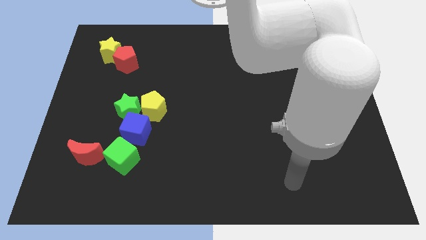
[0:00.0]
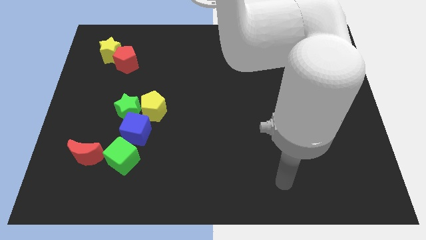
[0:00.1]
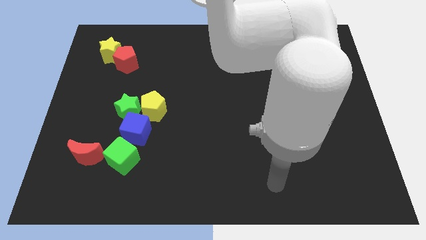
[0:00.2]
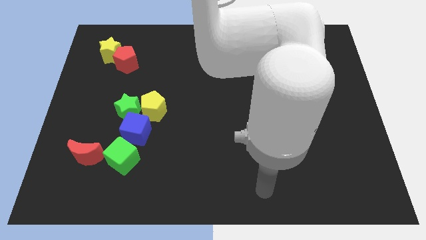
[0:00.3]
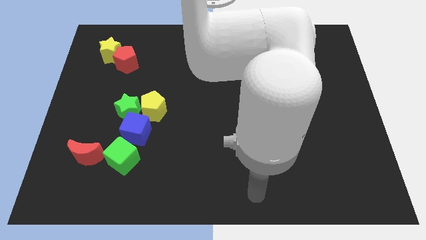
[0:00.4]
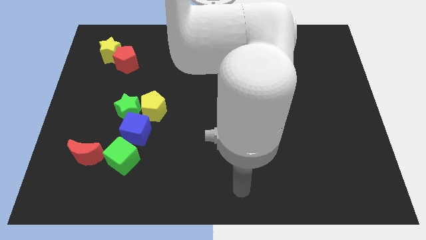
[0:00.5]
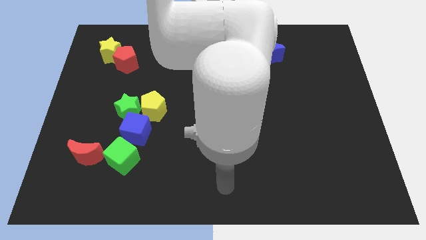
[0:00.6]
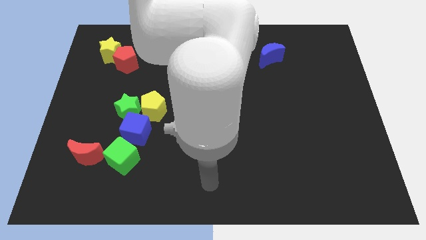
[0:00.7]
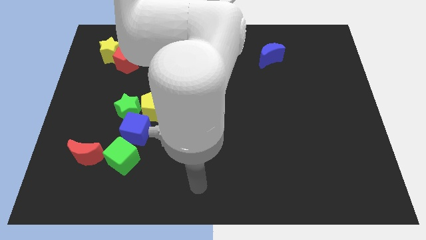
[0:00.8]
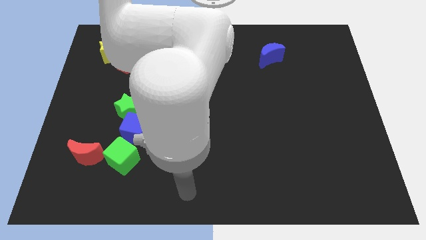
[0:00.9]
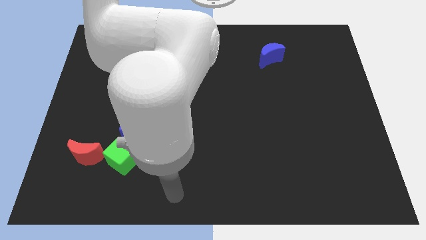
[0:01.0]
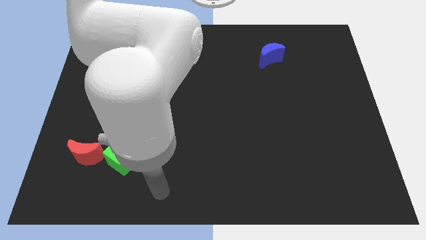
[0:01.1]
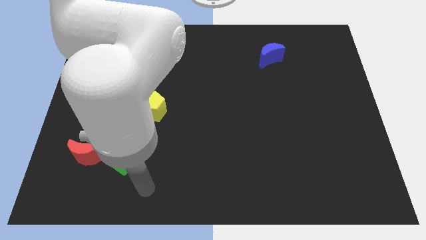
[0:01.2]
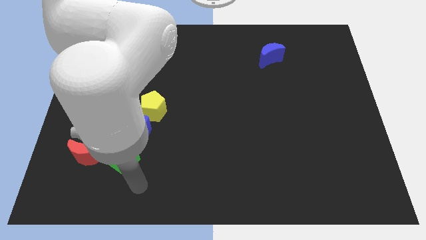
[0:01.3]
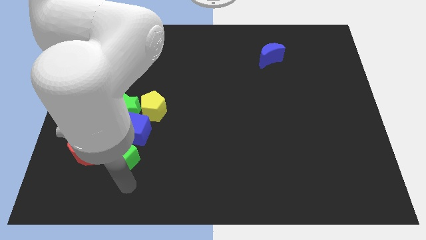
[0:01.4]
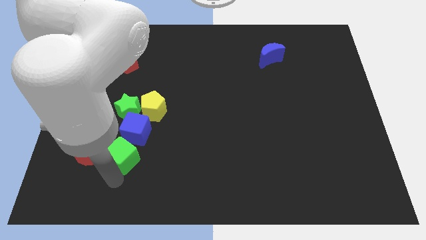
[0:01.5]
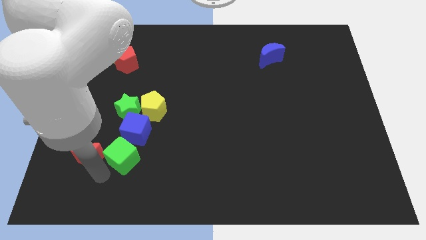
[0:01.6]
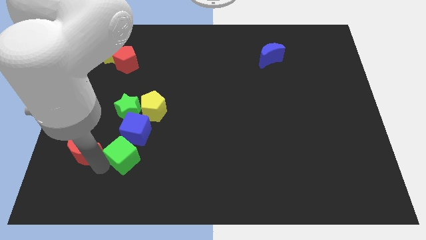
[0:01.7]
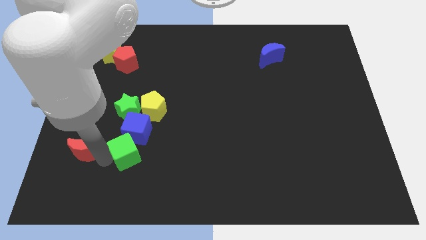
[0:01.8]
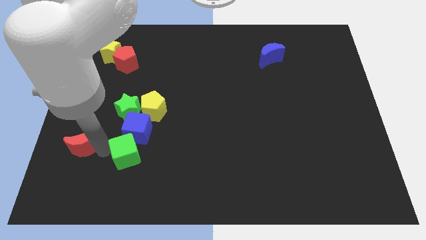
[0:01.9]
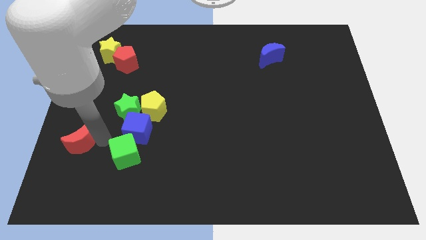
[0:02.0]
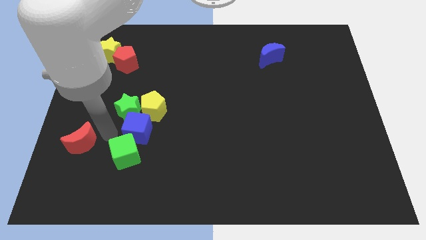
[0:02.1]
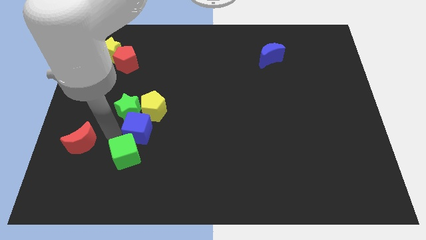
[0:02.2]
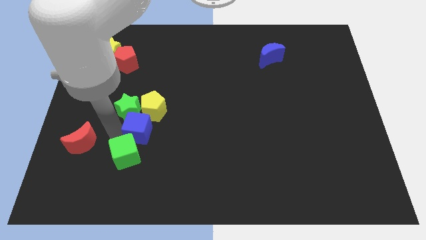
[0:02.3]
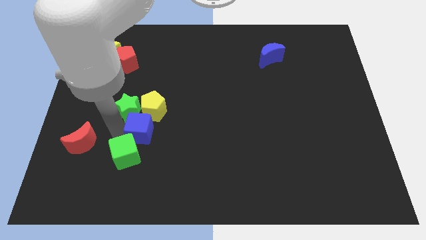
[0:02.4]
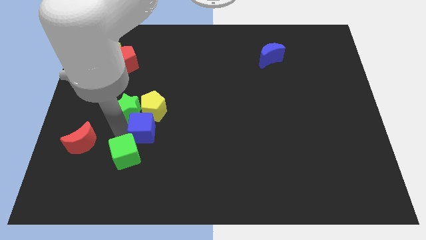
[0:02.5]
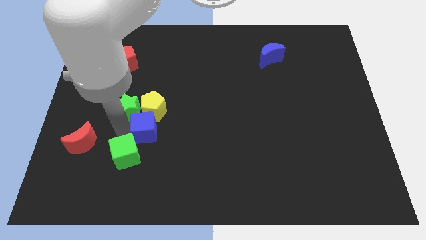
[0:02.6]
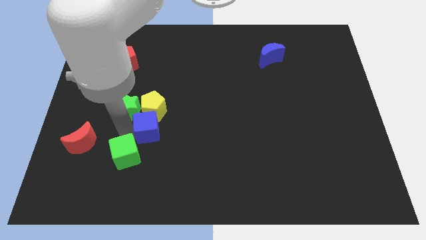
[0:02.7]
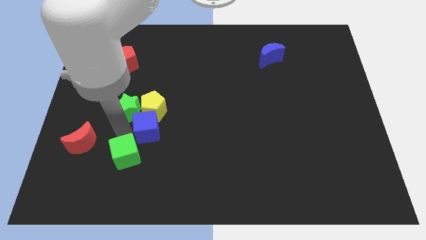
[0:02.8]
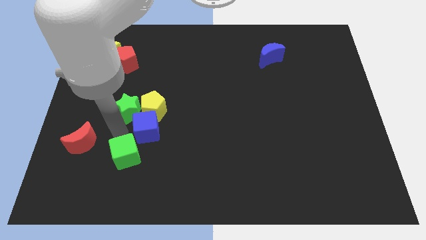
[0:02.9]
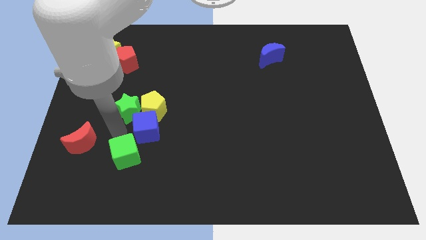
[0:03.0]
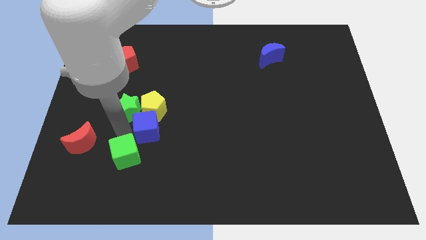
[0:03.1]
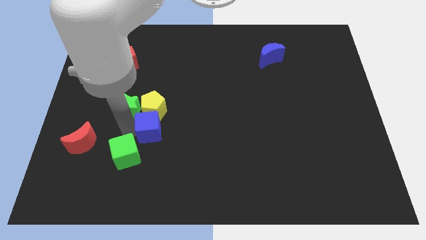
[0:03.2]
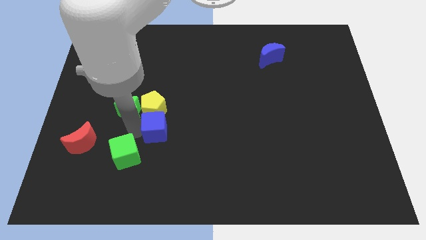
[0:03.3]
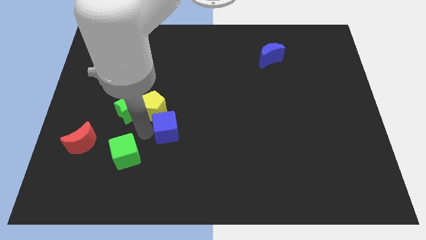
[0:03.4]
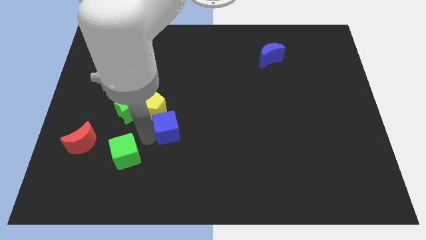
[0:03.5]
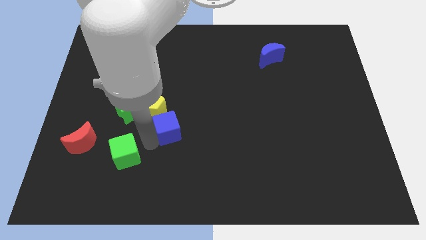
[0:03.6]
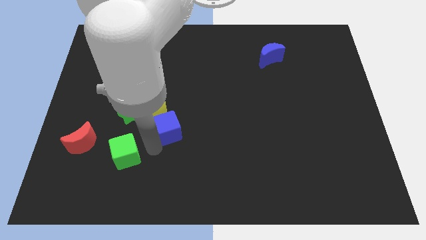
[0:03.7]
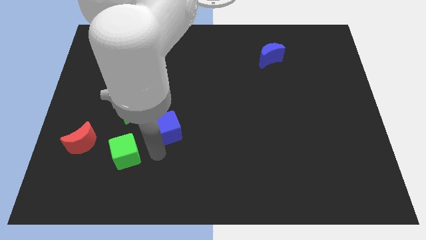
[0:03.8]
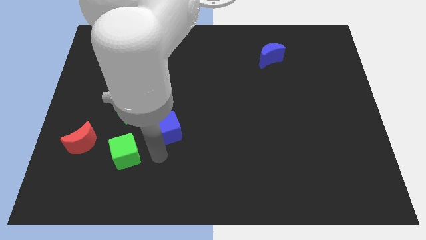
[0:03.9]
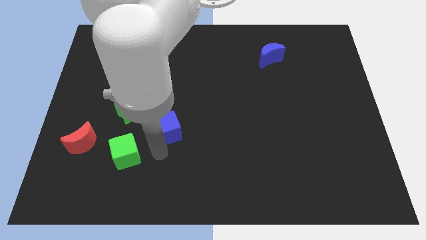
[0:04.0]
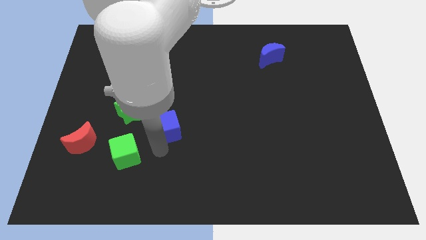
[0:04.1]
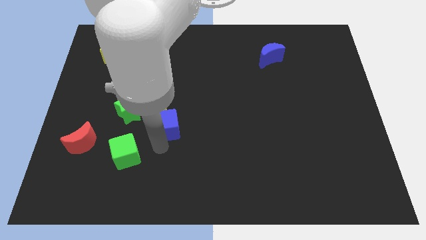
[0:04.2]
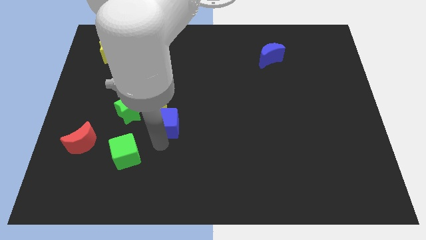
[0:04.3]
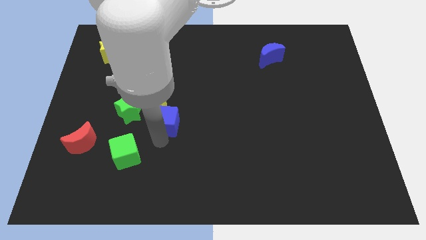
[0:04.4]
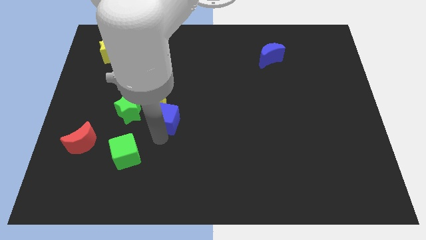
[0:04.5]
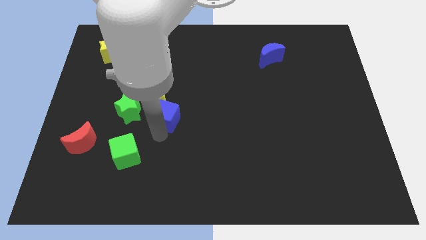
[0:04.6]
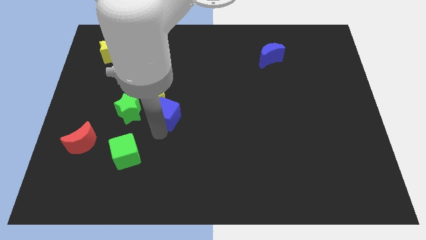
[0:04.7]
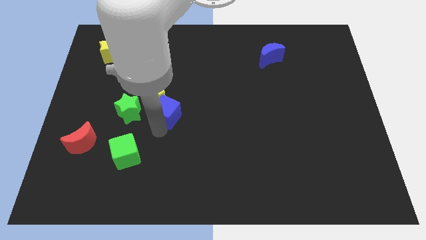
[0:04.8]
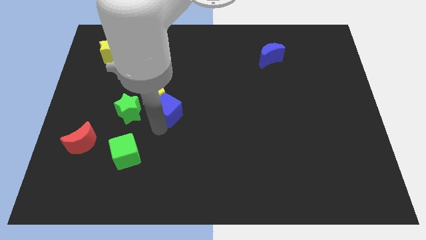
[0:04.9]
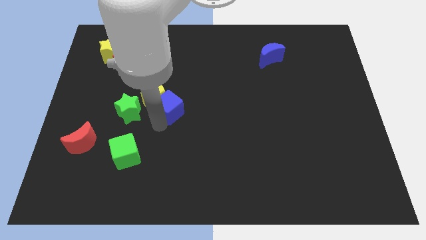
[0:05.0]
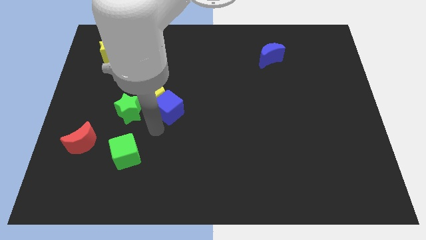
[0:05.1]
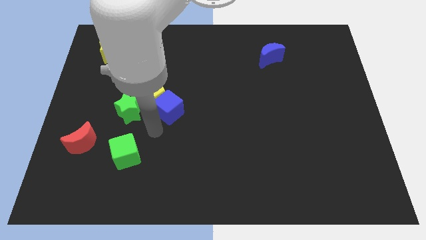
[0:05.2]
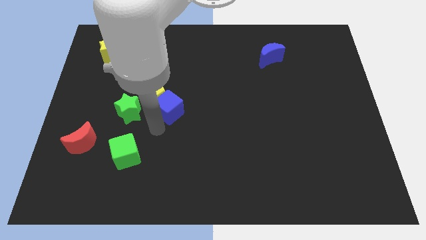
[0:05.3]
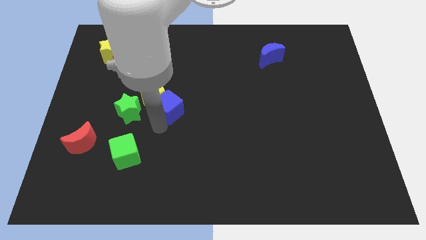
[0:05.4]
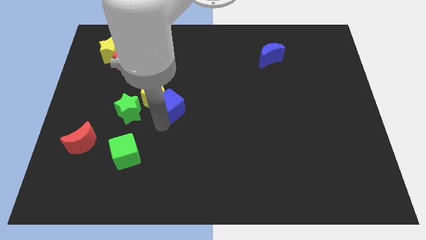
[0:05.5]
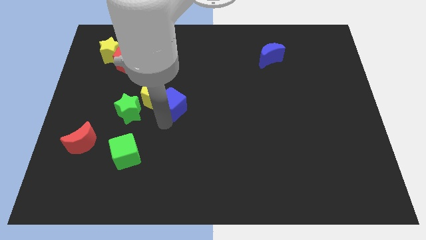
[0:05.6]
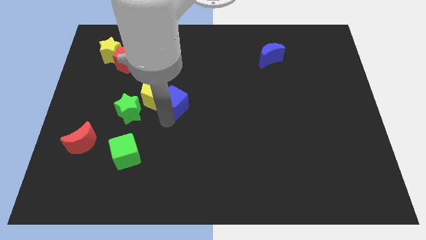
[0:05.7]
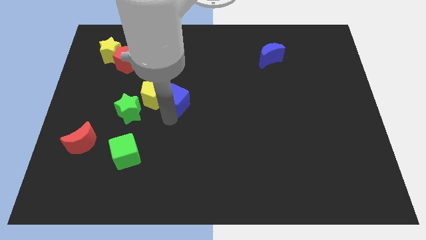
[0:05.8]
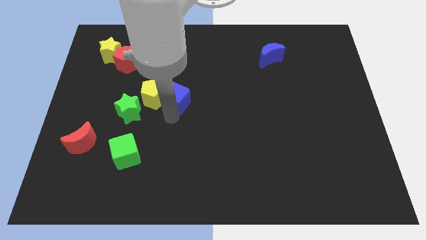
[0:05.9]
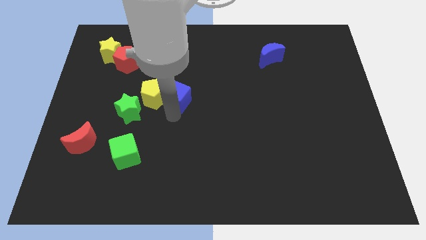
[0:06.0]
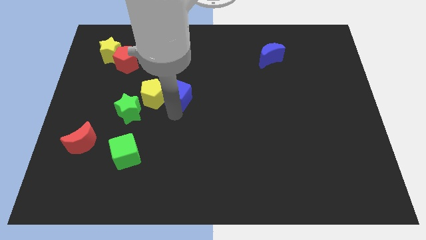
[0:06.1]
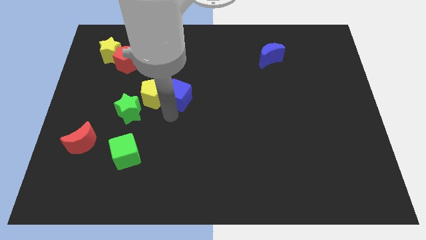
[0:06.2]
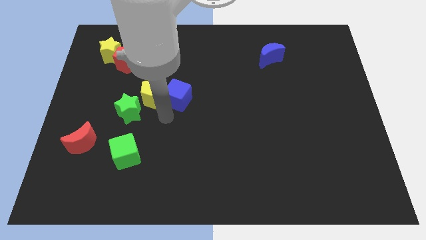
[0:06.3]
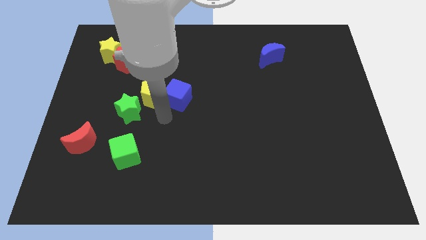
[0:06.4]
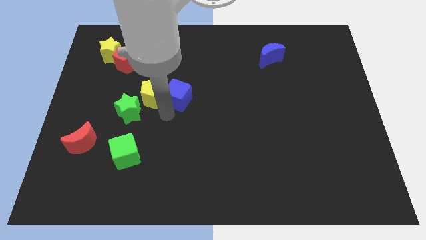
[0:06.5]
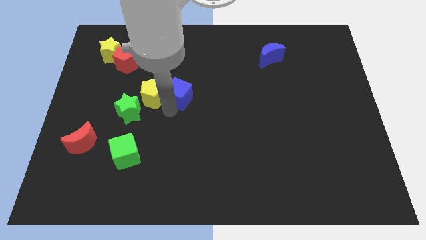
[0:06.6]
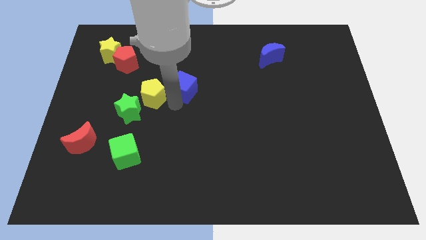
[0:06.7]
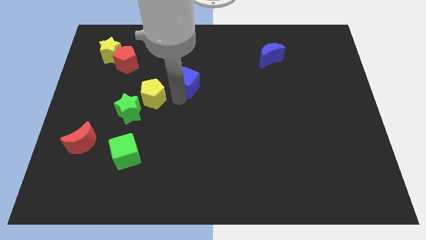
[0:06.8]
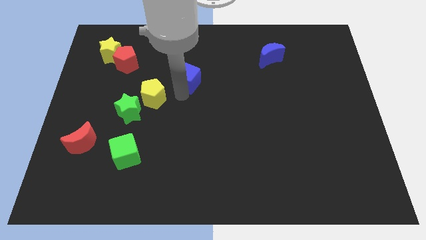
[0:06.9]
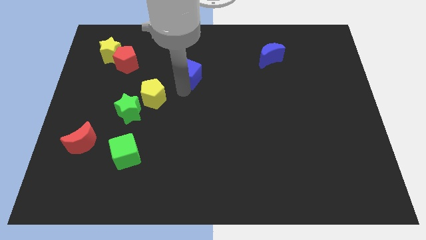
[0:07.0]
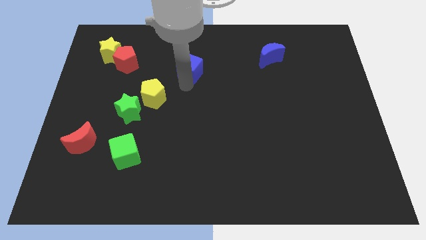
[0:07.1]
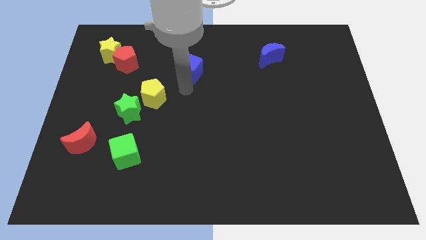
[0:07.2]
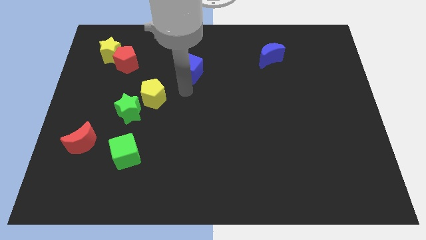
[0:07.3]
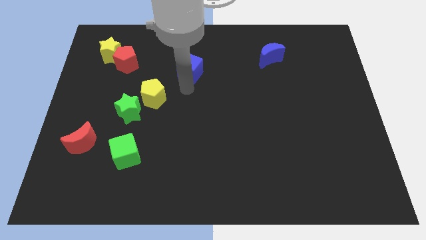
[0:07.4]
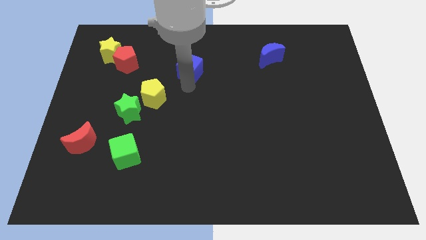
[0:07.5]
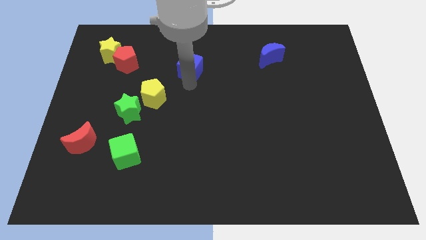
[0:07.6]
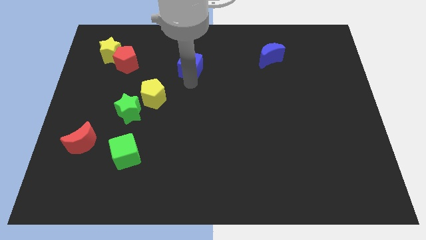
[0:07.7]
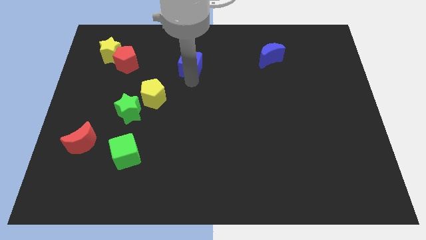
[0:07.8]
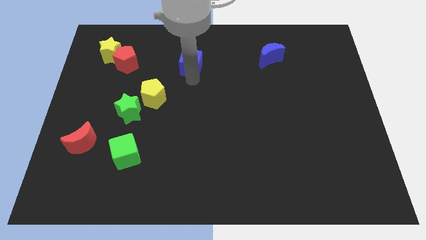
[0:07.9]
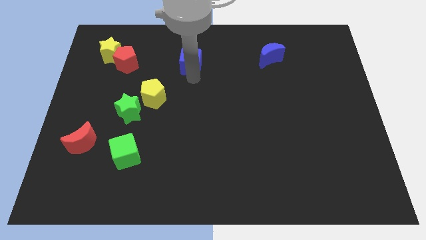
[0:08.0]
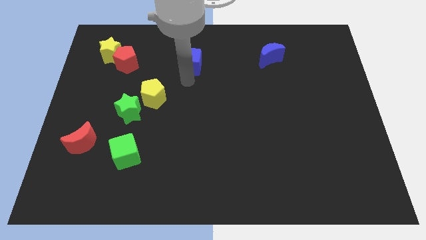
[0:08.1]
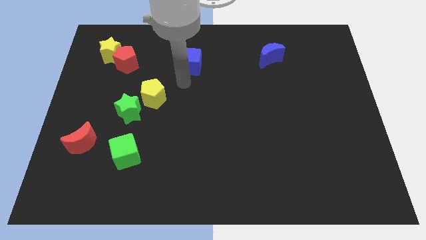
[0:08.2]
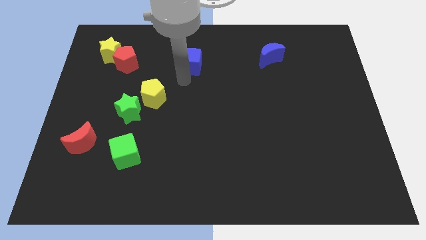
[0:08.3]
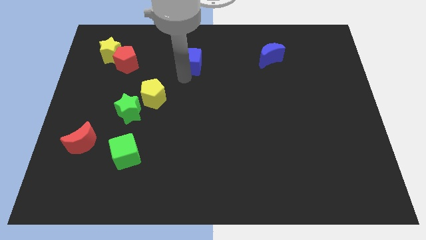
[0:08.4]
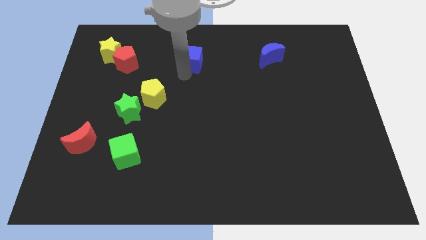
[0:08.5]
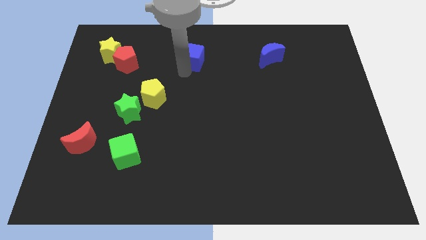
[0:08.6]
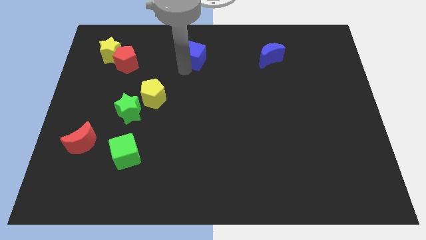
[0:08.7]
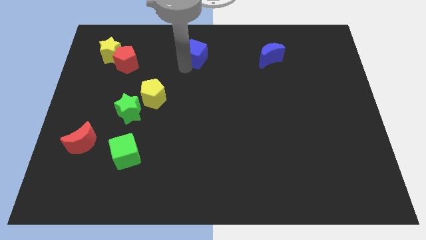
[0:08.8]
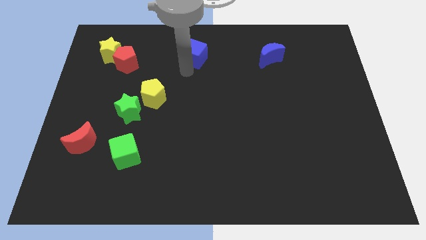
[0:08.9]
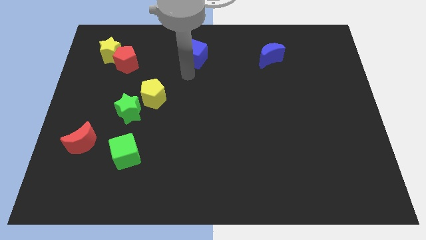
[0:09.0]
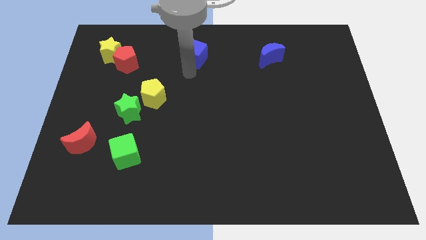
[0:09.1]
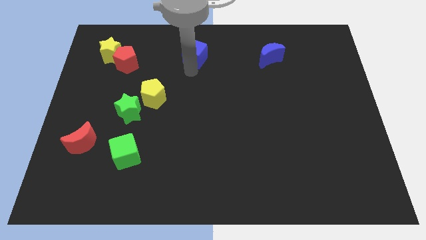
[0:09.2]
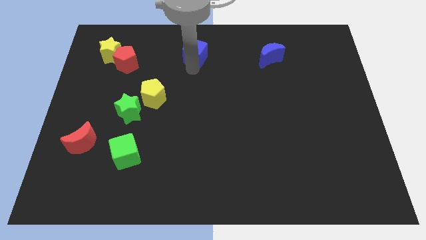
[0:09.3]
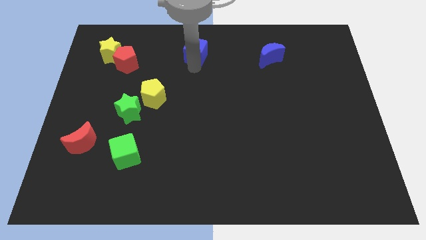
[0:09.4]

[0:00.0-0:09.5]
put the blue cube to the top side
